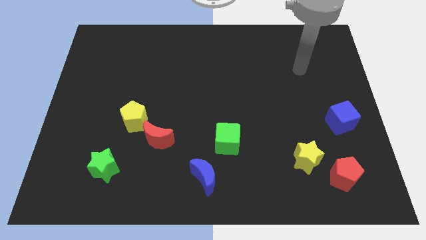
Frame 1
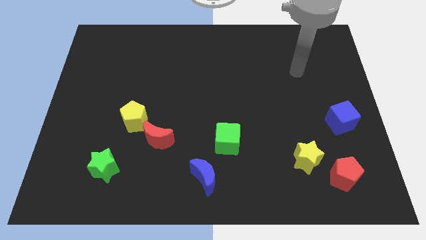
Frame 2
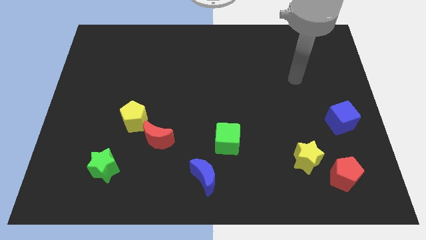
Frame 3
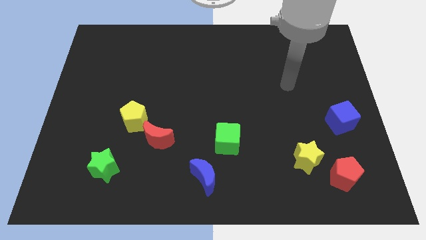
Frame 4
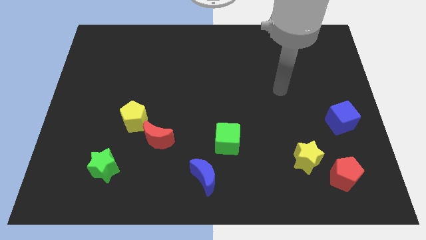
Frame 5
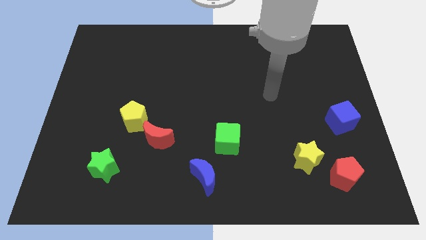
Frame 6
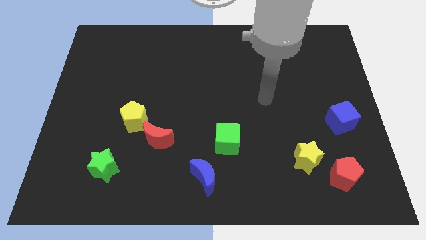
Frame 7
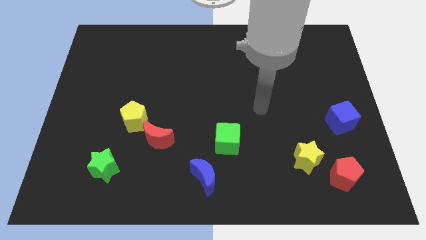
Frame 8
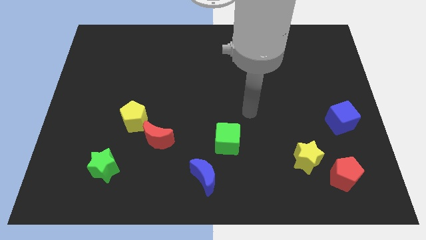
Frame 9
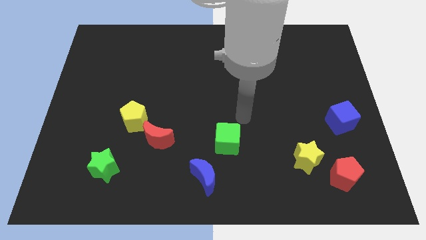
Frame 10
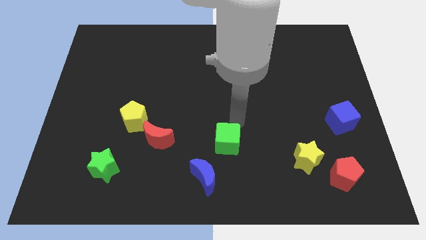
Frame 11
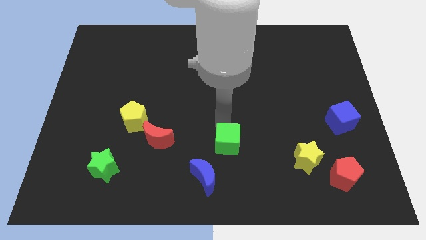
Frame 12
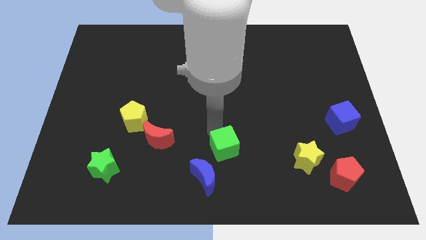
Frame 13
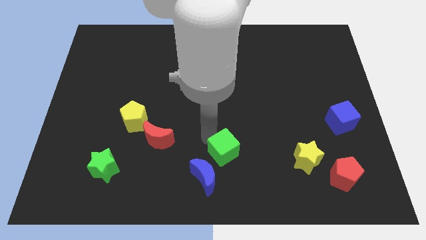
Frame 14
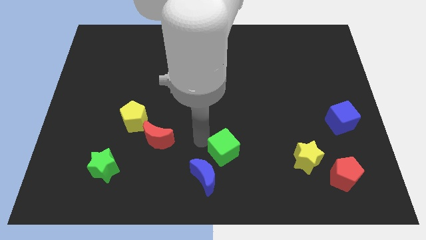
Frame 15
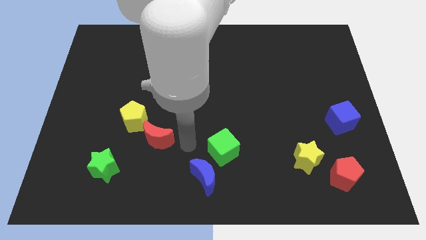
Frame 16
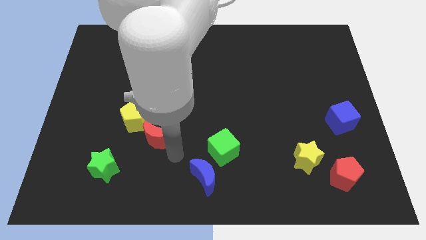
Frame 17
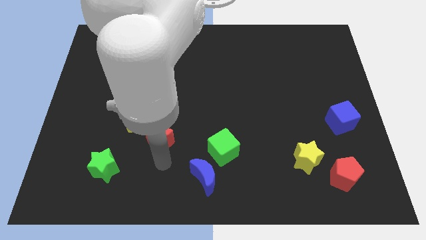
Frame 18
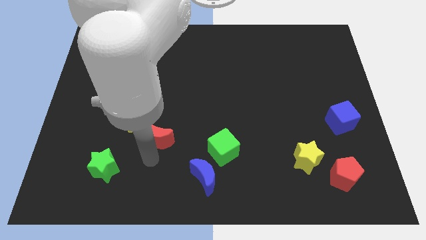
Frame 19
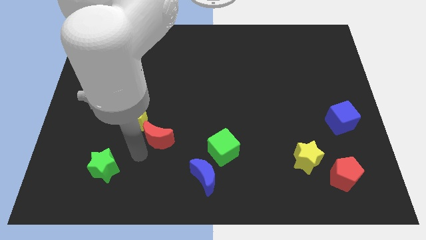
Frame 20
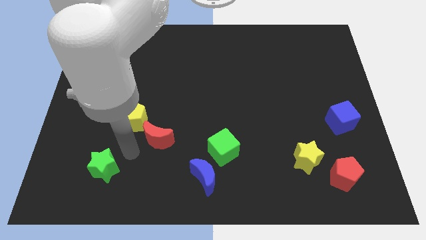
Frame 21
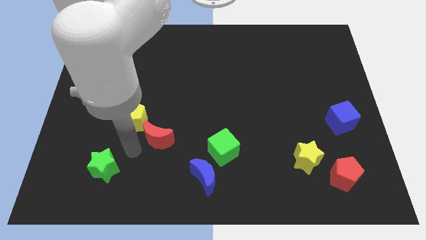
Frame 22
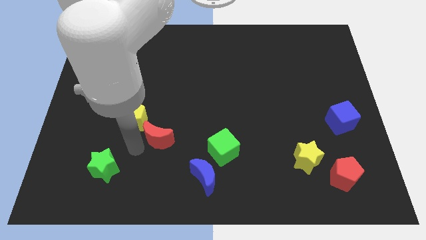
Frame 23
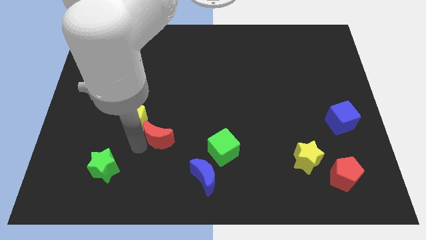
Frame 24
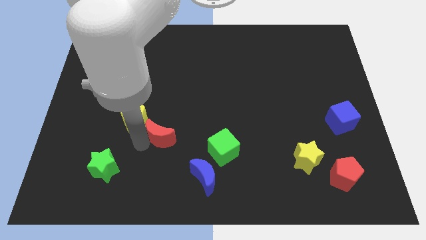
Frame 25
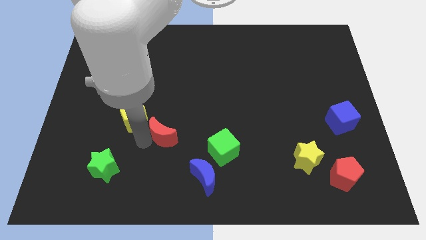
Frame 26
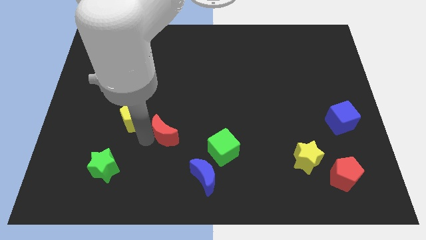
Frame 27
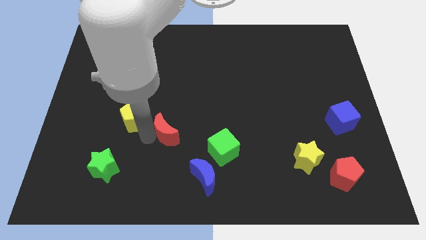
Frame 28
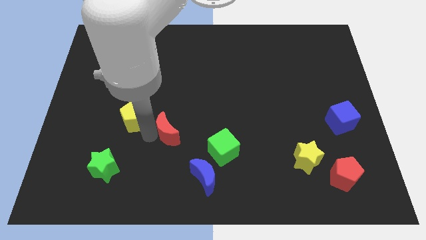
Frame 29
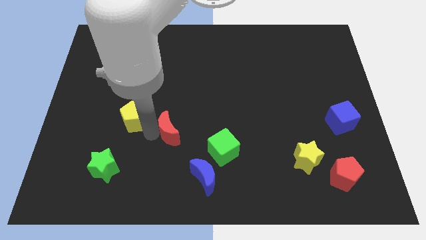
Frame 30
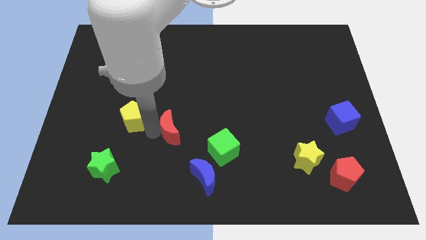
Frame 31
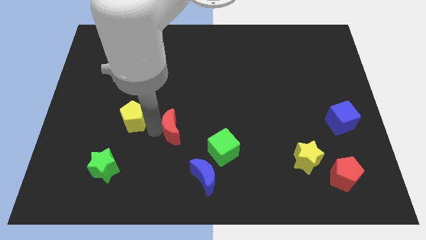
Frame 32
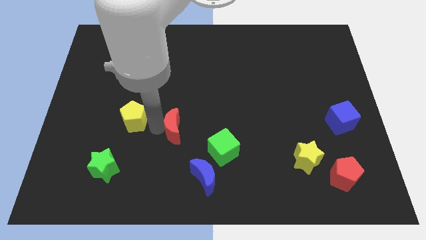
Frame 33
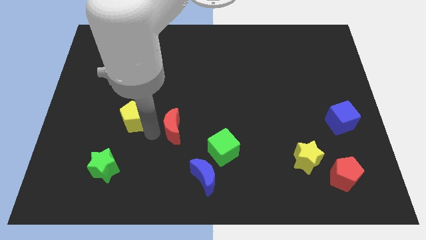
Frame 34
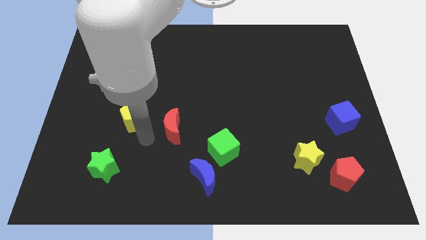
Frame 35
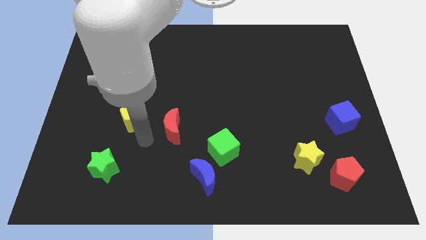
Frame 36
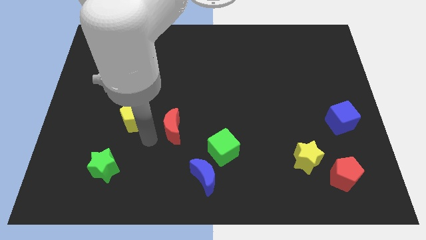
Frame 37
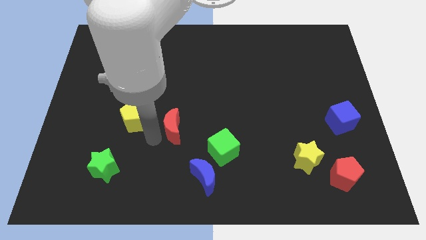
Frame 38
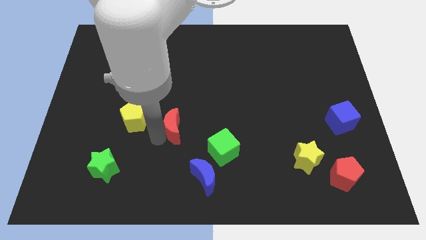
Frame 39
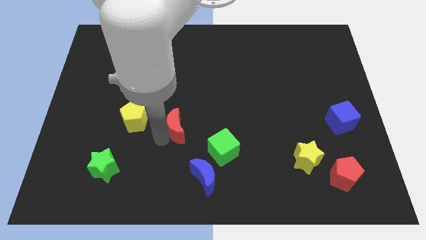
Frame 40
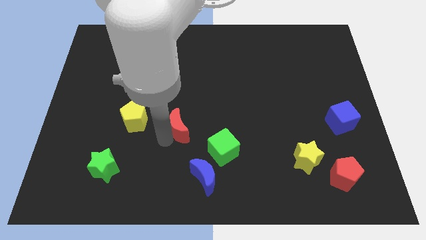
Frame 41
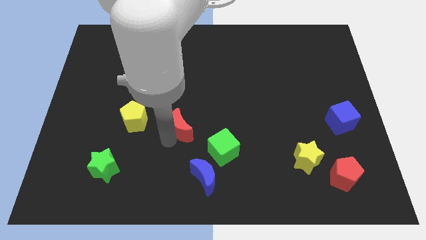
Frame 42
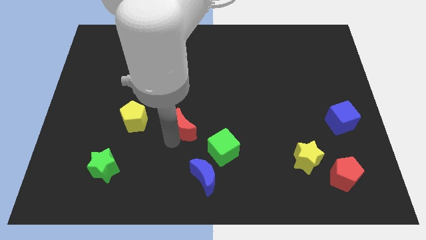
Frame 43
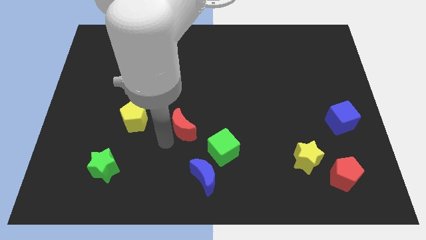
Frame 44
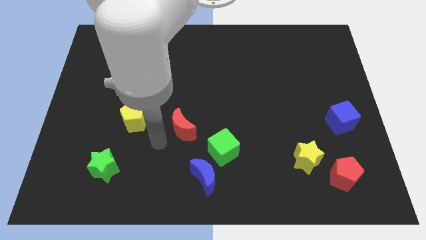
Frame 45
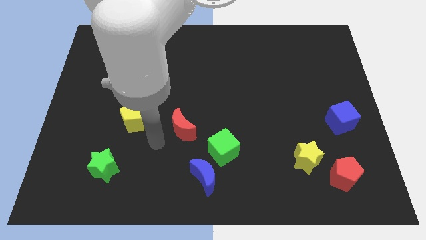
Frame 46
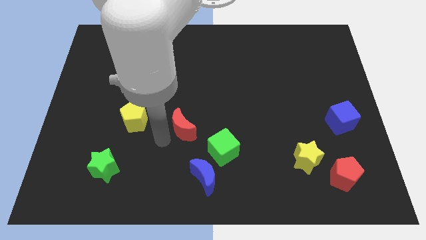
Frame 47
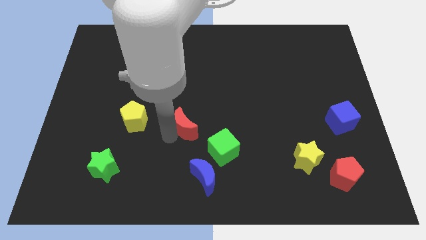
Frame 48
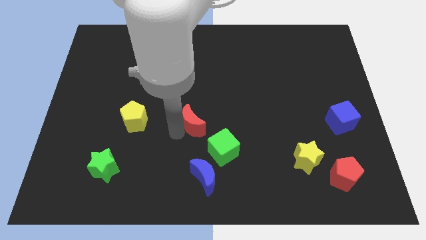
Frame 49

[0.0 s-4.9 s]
push the red moon up and right diagonally a little bit

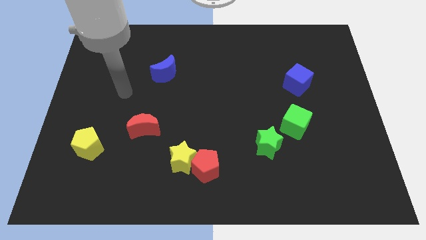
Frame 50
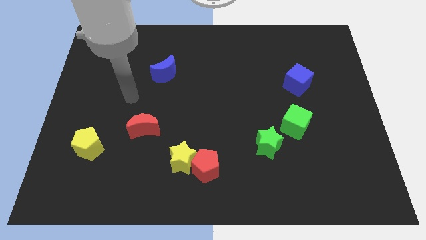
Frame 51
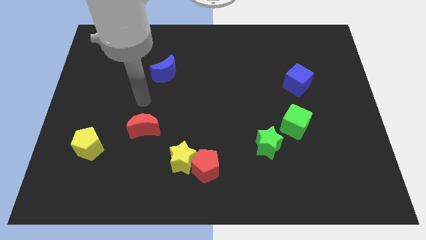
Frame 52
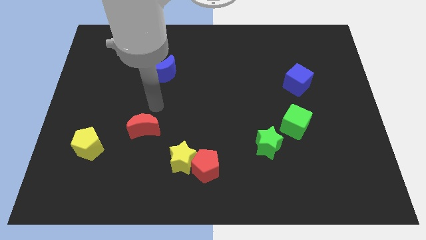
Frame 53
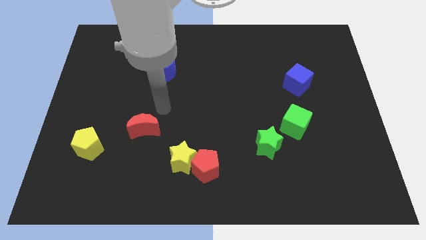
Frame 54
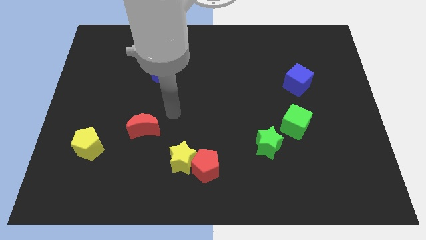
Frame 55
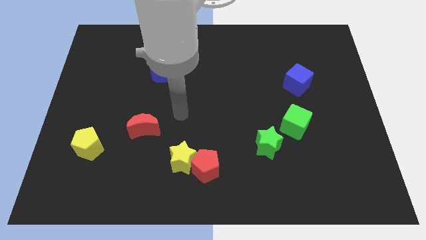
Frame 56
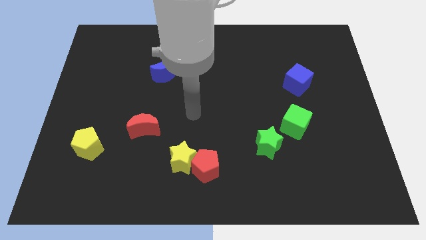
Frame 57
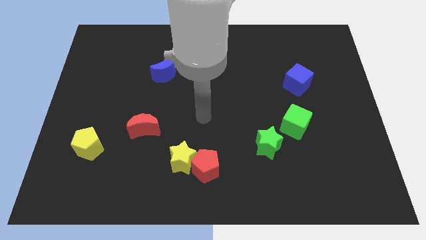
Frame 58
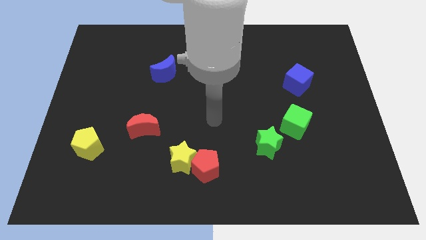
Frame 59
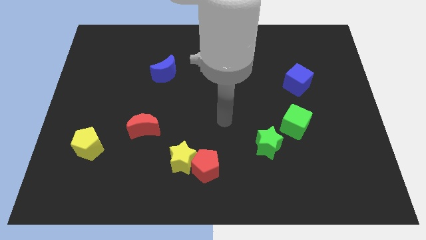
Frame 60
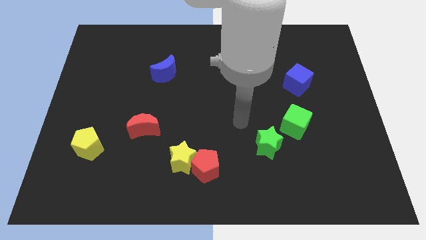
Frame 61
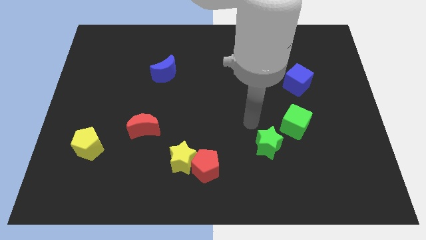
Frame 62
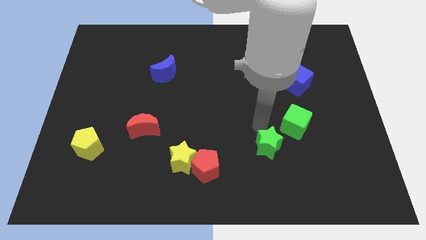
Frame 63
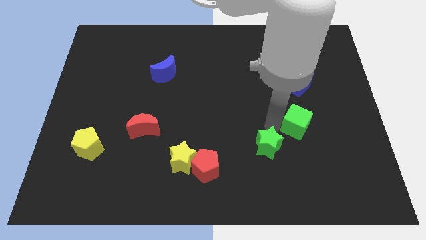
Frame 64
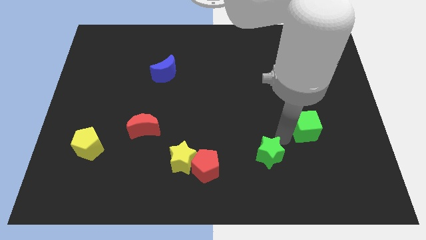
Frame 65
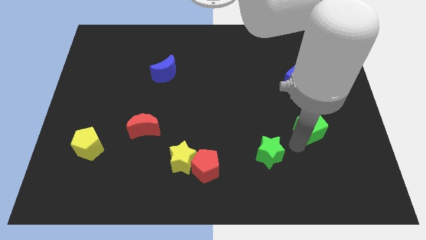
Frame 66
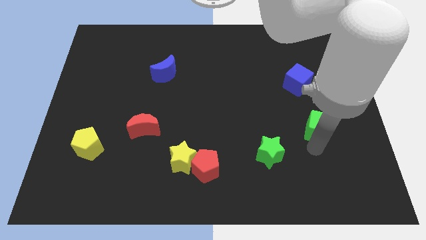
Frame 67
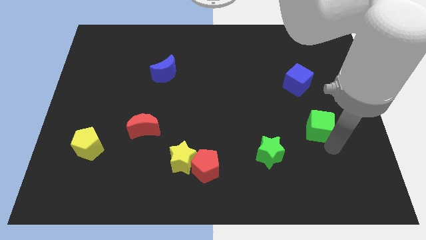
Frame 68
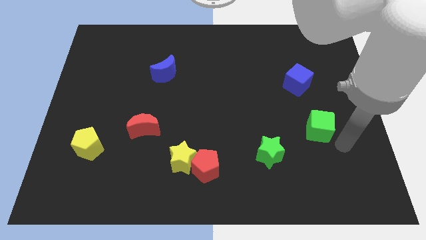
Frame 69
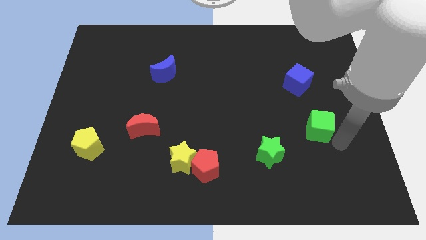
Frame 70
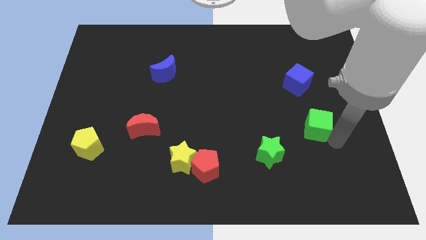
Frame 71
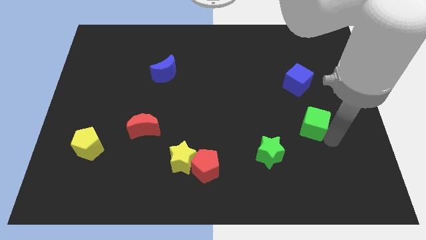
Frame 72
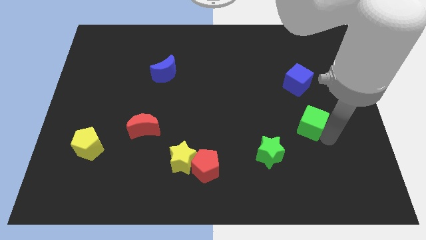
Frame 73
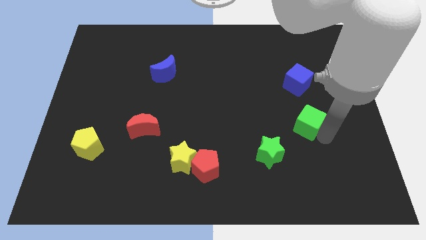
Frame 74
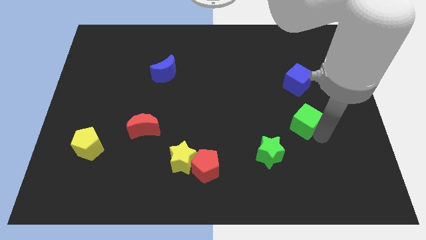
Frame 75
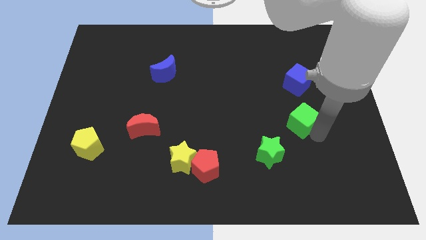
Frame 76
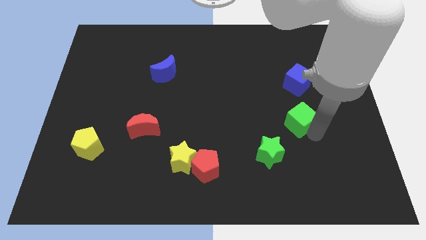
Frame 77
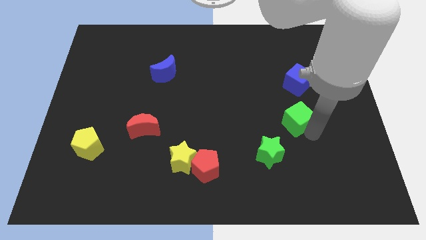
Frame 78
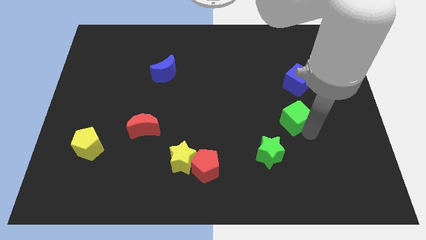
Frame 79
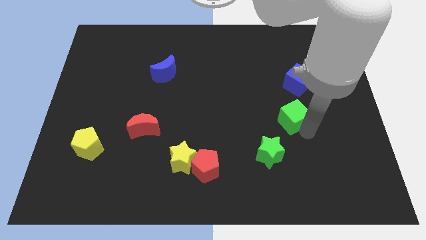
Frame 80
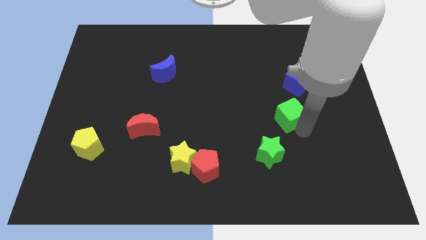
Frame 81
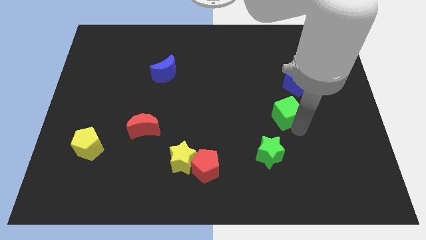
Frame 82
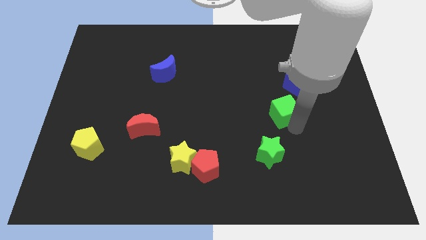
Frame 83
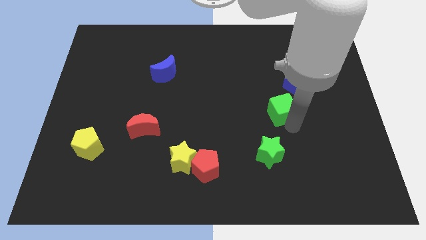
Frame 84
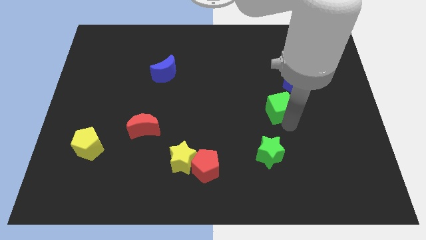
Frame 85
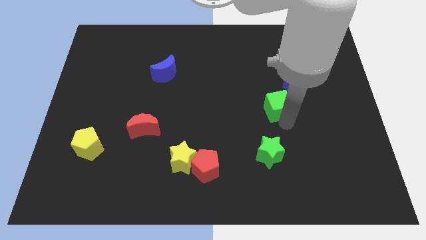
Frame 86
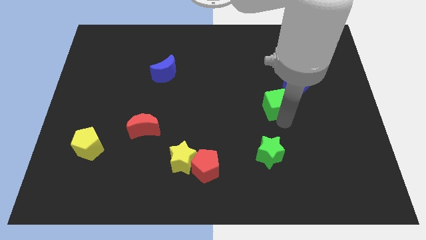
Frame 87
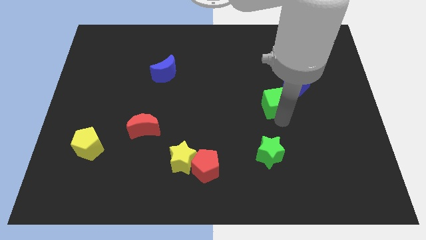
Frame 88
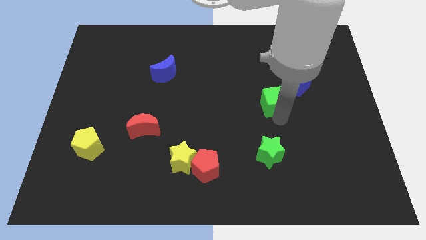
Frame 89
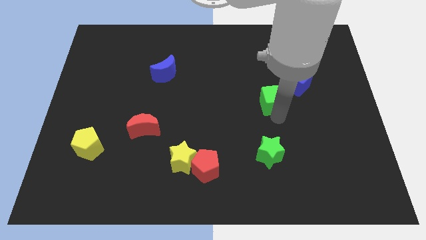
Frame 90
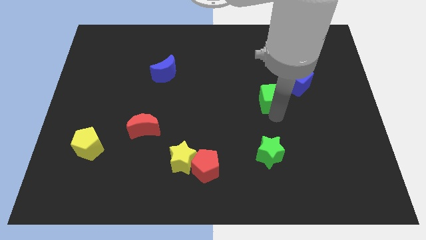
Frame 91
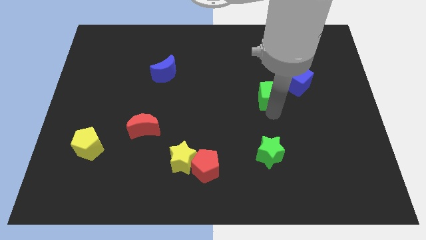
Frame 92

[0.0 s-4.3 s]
move the green cube a little upwards
